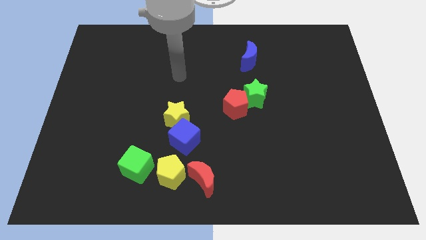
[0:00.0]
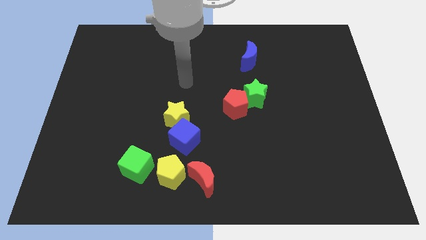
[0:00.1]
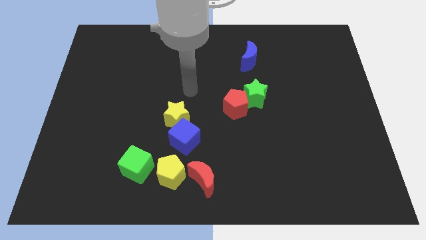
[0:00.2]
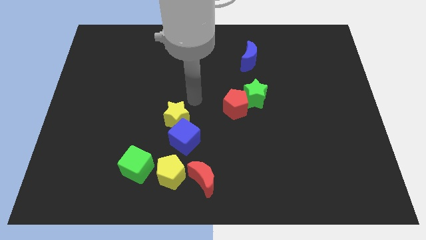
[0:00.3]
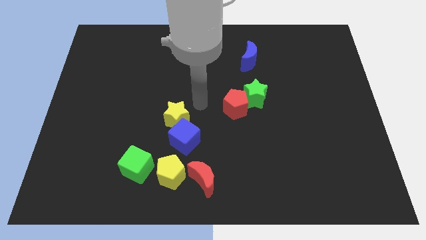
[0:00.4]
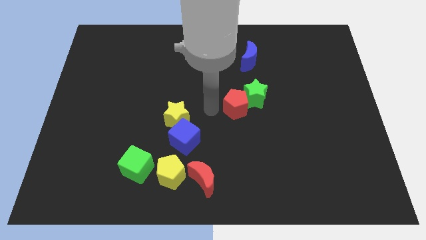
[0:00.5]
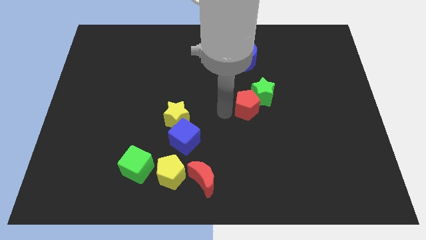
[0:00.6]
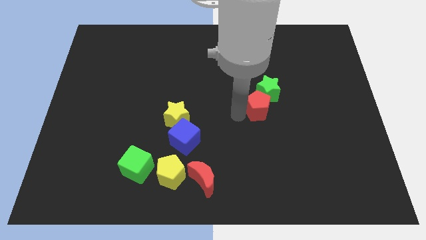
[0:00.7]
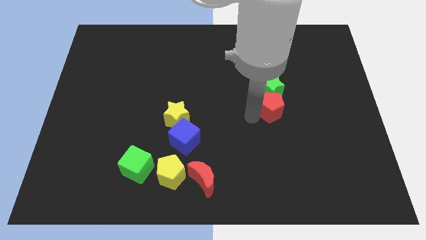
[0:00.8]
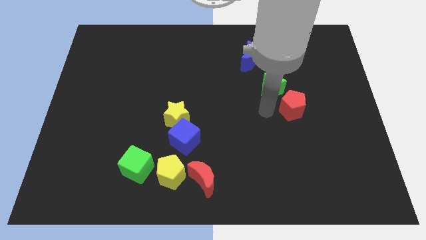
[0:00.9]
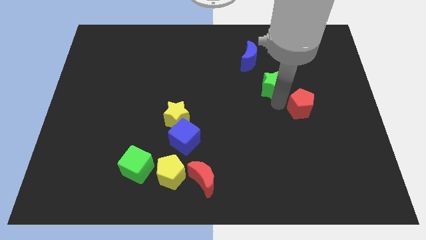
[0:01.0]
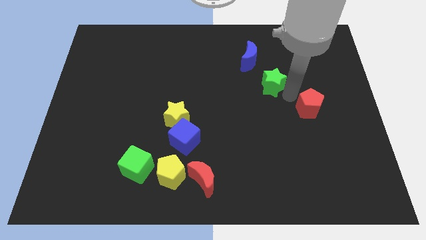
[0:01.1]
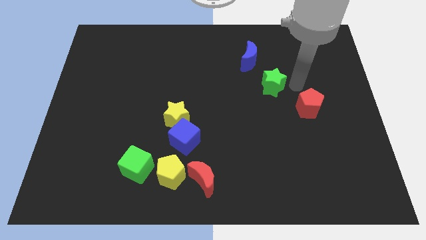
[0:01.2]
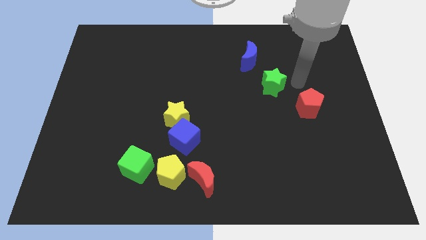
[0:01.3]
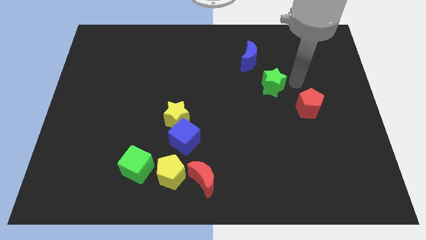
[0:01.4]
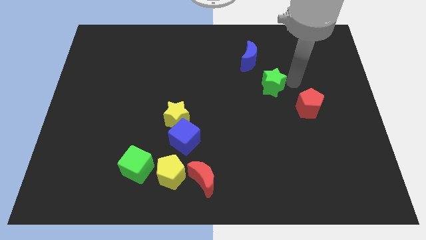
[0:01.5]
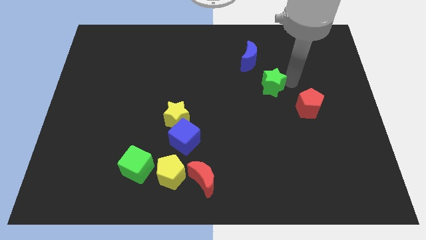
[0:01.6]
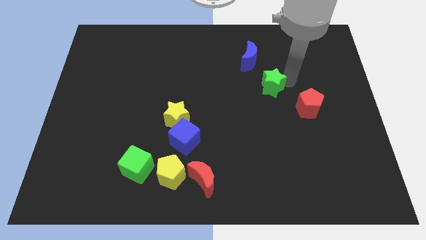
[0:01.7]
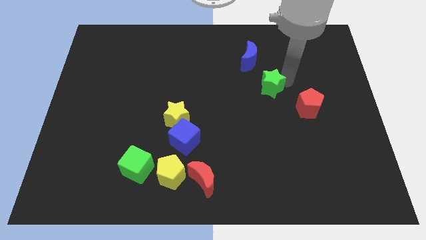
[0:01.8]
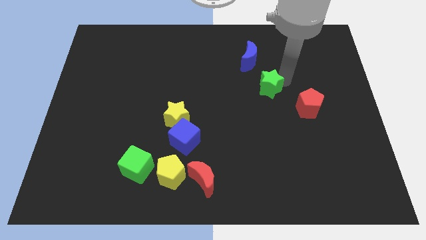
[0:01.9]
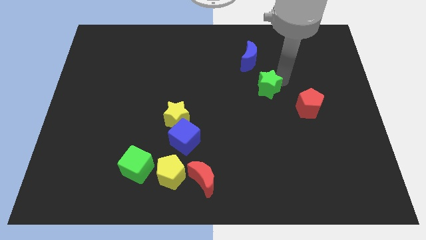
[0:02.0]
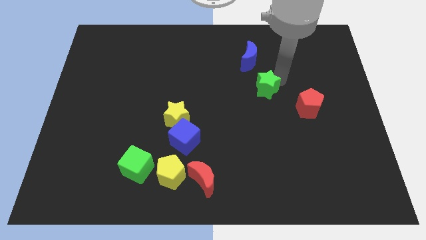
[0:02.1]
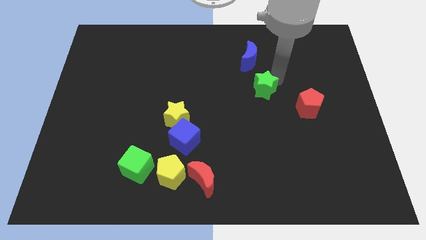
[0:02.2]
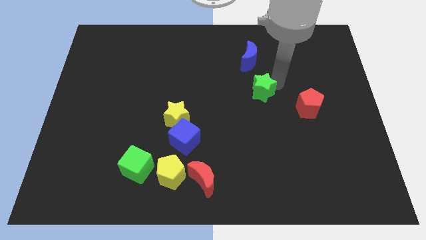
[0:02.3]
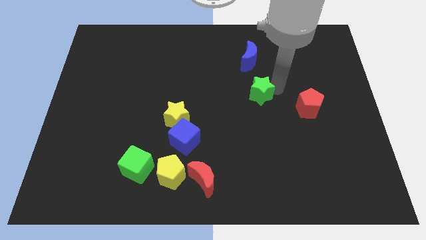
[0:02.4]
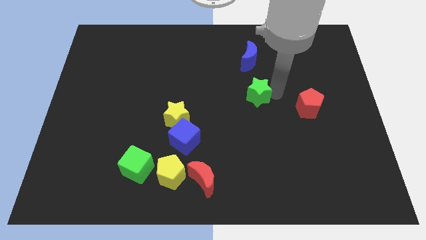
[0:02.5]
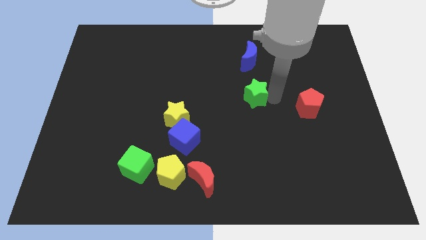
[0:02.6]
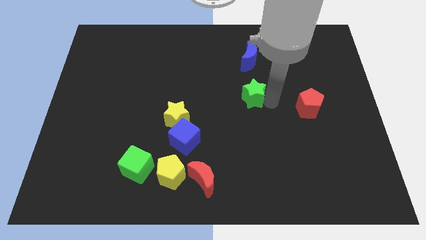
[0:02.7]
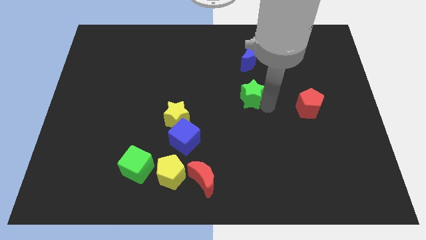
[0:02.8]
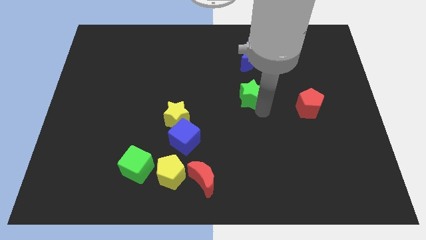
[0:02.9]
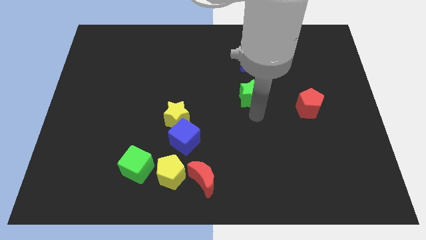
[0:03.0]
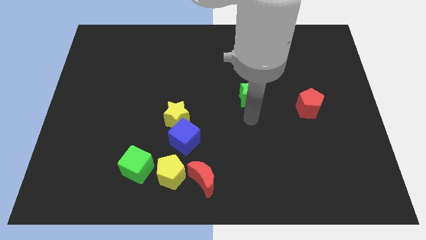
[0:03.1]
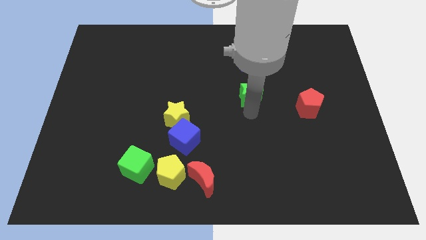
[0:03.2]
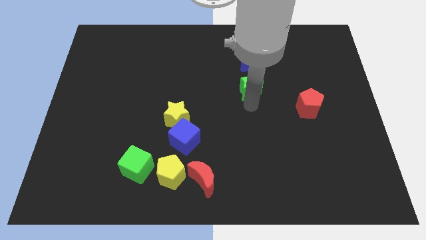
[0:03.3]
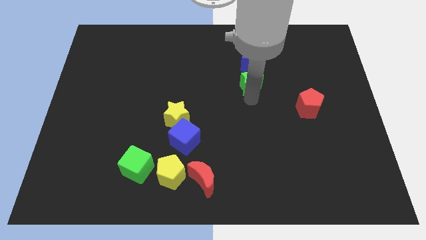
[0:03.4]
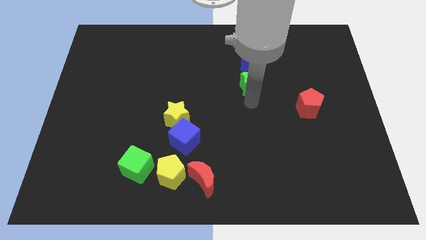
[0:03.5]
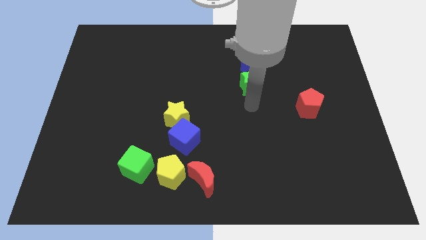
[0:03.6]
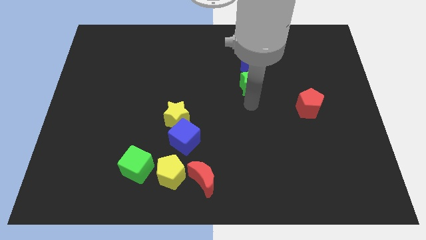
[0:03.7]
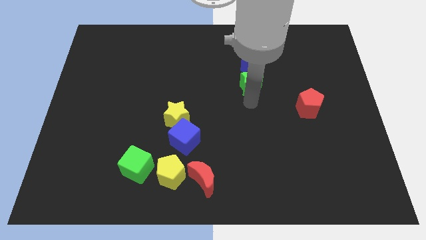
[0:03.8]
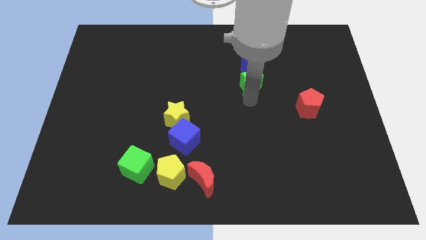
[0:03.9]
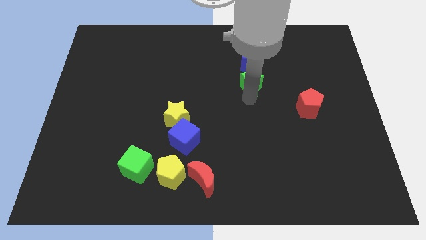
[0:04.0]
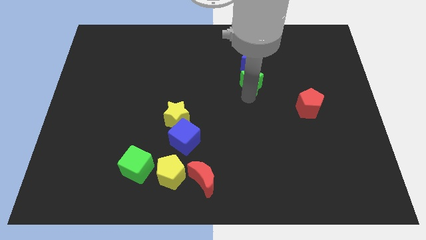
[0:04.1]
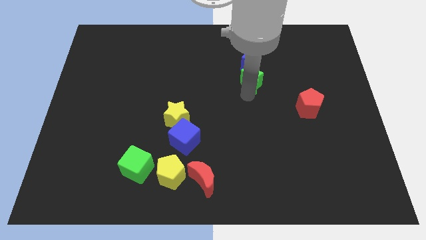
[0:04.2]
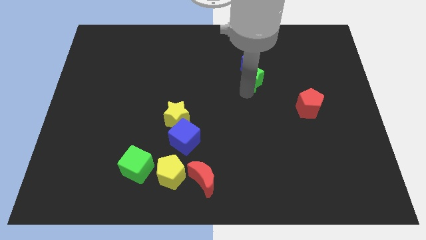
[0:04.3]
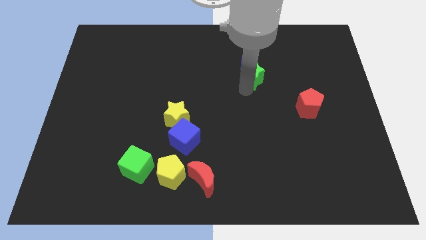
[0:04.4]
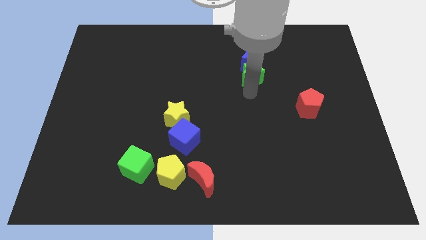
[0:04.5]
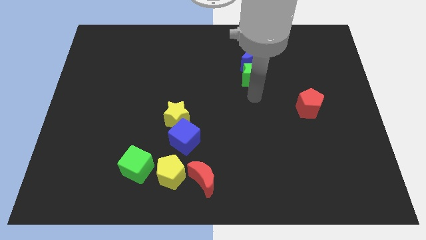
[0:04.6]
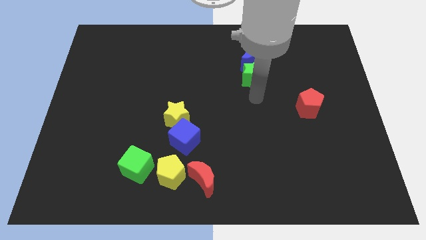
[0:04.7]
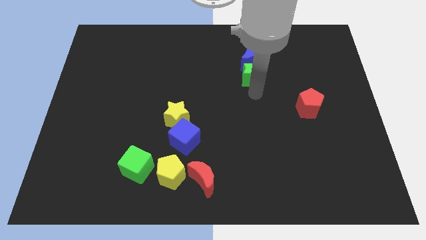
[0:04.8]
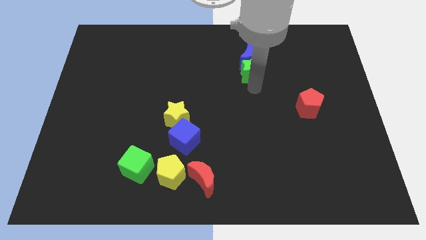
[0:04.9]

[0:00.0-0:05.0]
put the green star towards the blue moon

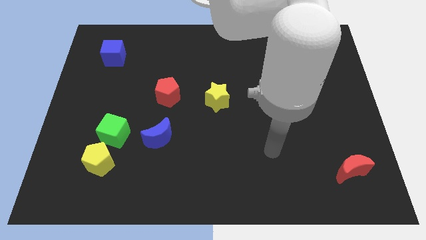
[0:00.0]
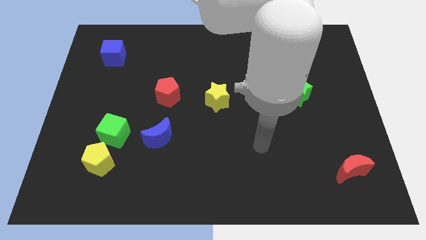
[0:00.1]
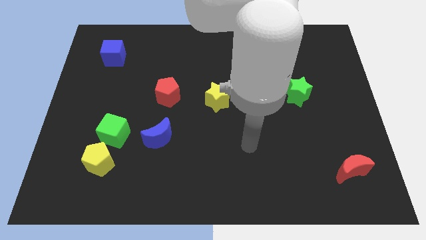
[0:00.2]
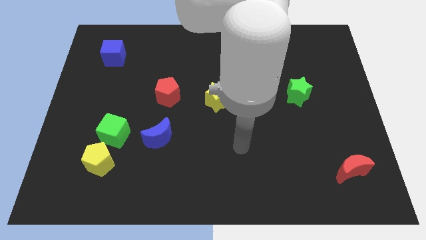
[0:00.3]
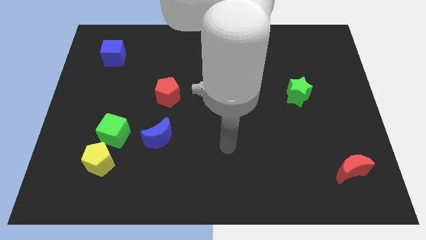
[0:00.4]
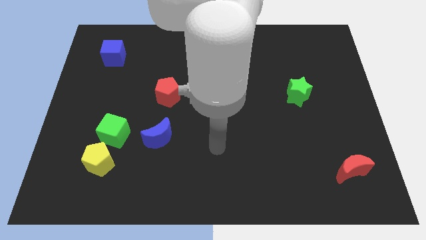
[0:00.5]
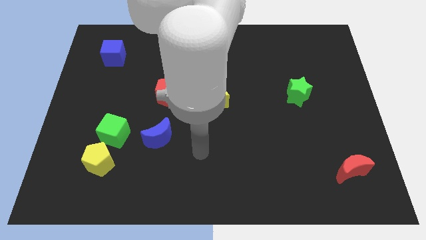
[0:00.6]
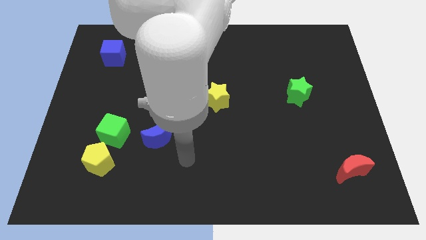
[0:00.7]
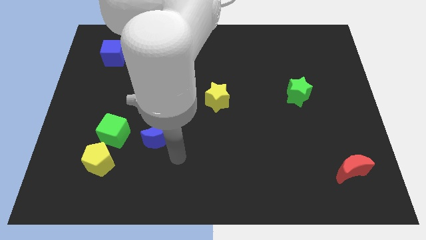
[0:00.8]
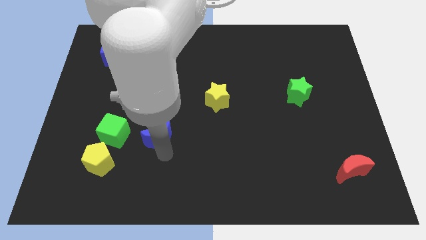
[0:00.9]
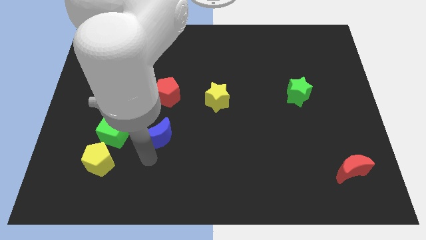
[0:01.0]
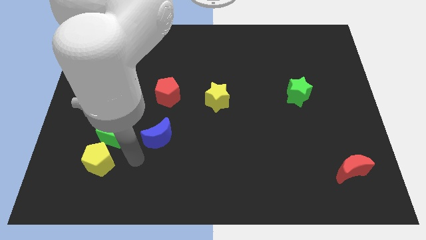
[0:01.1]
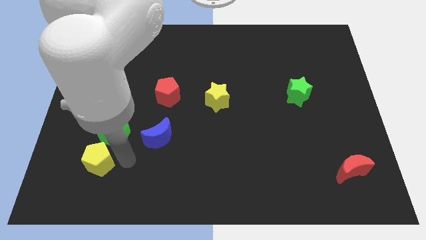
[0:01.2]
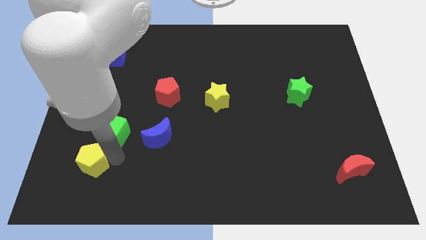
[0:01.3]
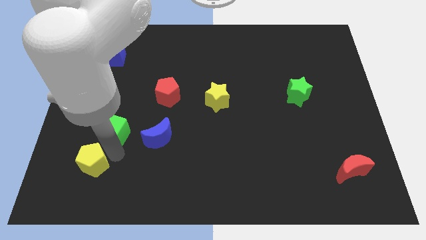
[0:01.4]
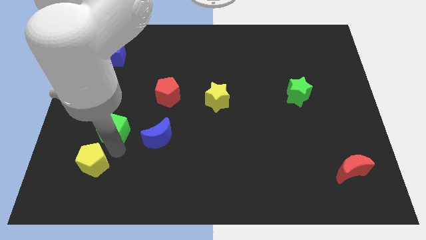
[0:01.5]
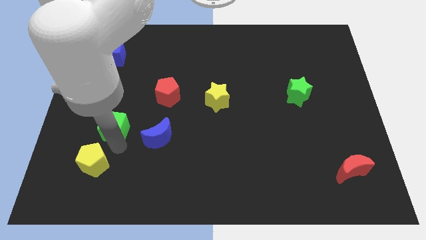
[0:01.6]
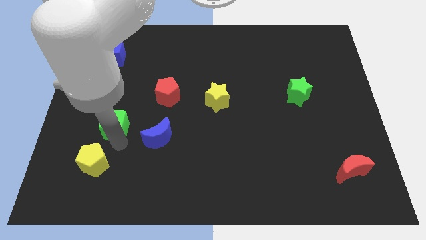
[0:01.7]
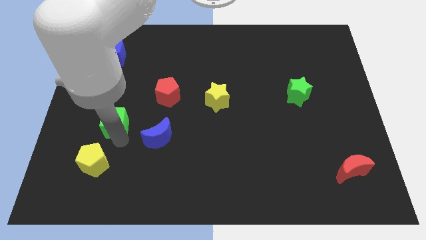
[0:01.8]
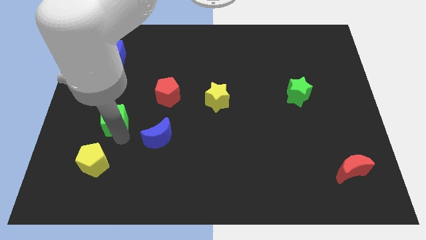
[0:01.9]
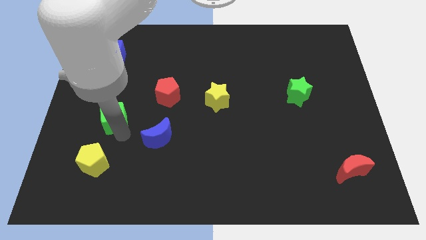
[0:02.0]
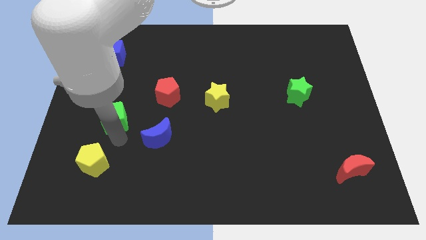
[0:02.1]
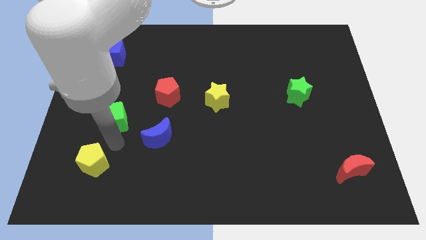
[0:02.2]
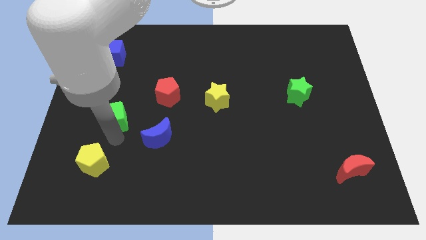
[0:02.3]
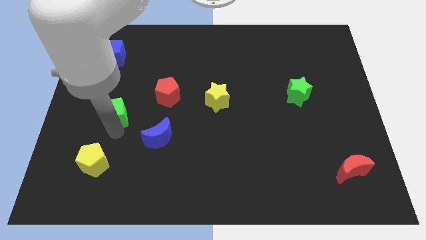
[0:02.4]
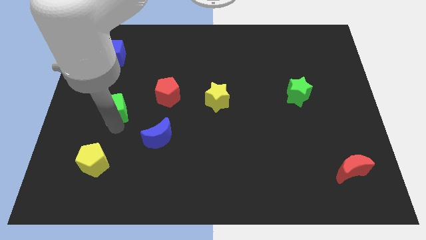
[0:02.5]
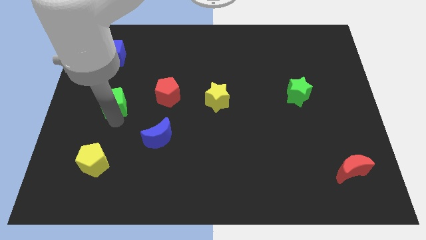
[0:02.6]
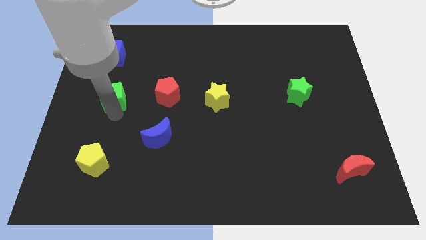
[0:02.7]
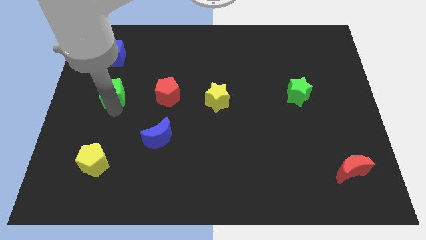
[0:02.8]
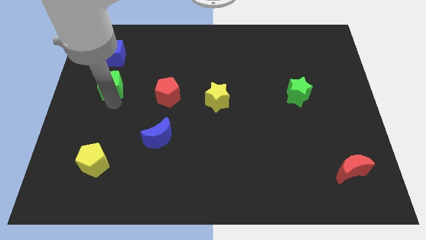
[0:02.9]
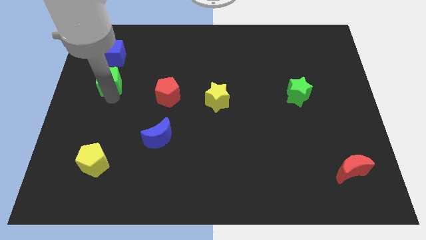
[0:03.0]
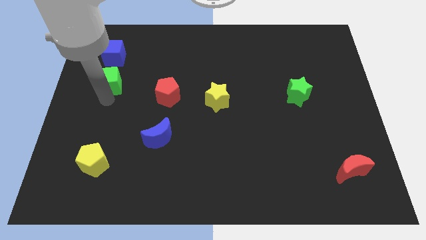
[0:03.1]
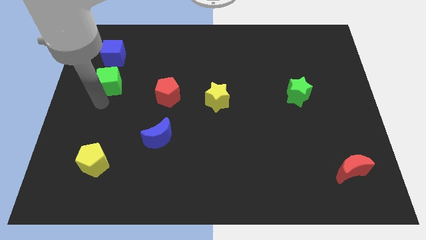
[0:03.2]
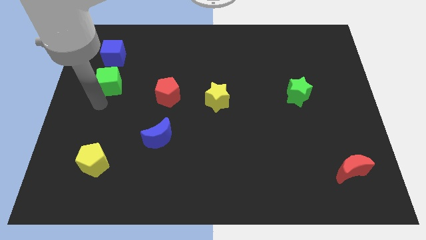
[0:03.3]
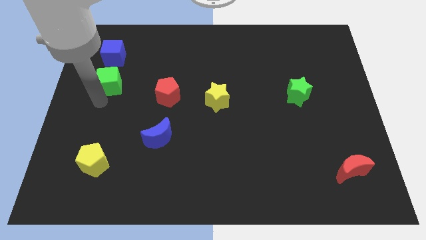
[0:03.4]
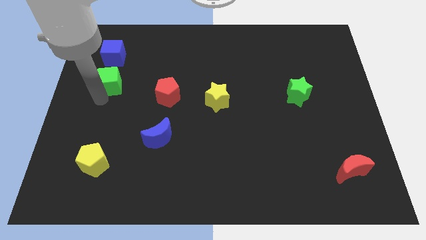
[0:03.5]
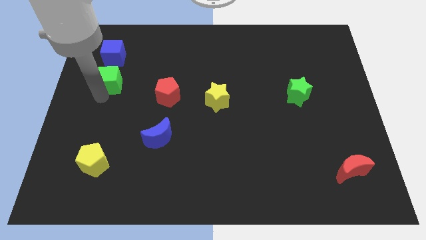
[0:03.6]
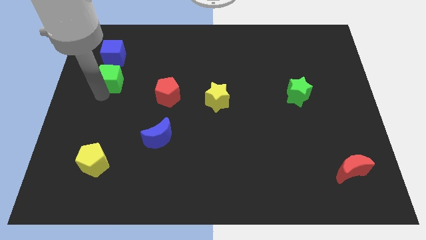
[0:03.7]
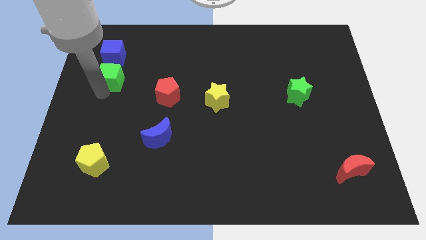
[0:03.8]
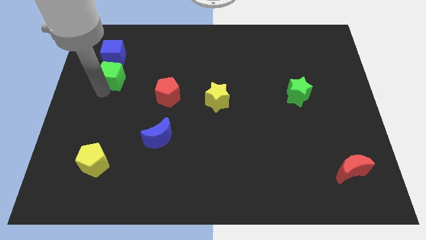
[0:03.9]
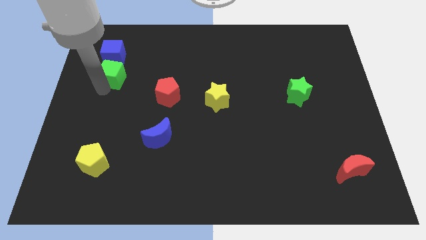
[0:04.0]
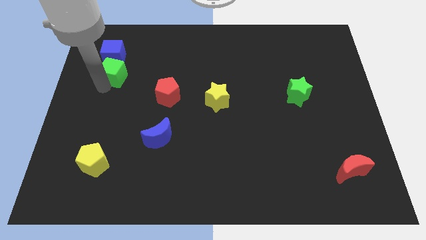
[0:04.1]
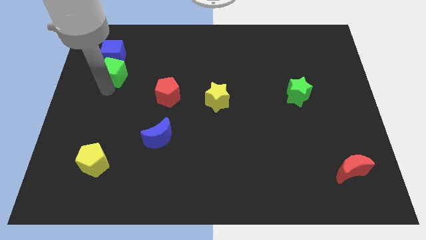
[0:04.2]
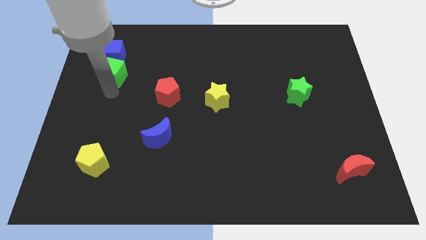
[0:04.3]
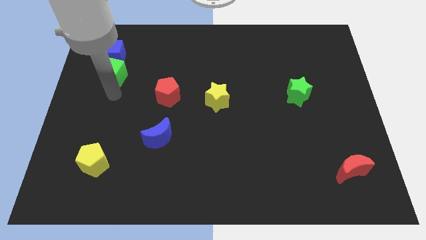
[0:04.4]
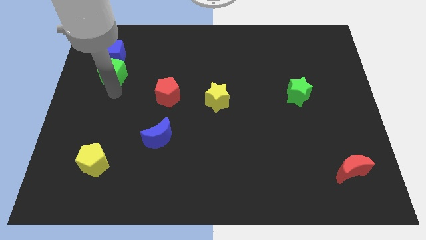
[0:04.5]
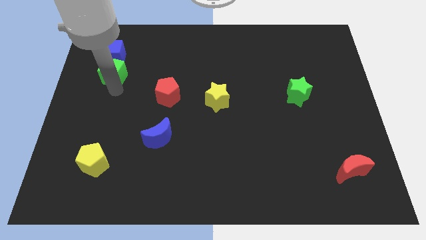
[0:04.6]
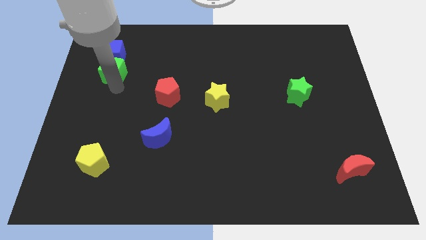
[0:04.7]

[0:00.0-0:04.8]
put the green cube to the blue cube
